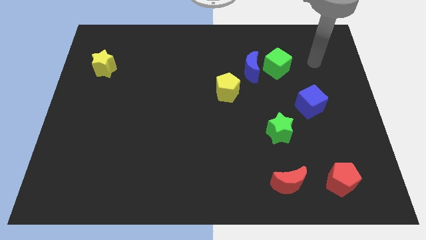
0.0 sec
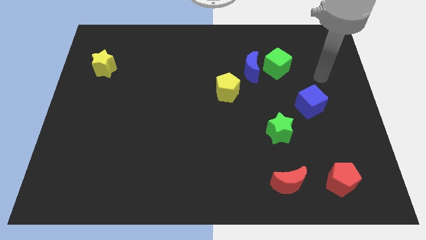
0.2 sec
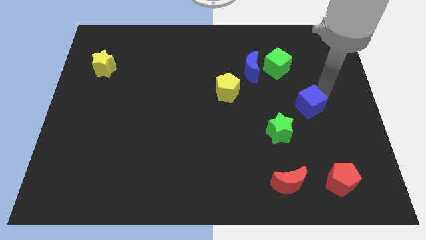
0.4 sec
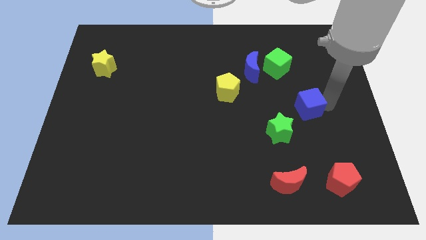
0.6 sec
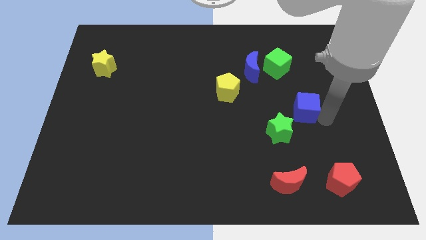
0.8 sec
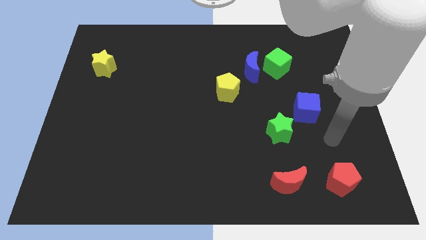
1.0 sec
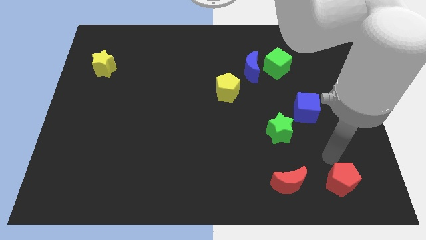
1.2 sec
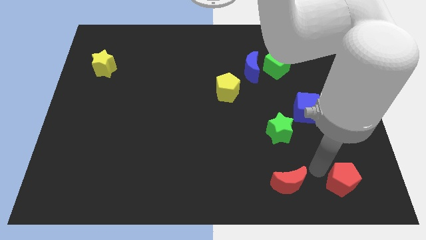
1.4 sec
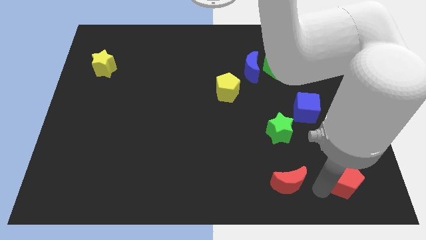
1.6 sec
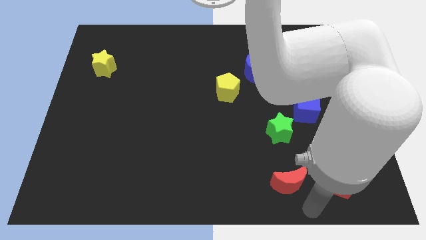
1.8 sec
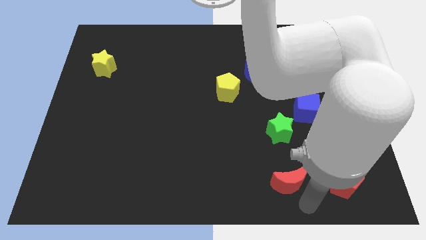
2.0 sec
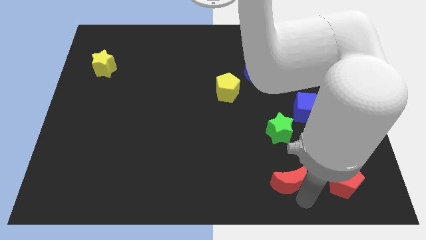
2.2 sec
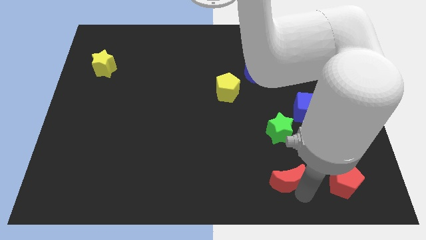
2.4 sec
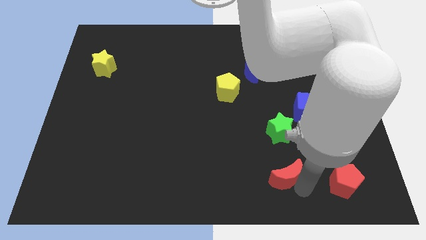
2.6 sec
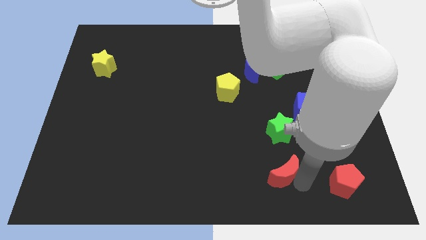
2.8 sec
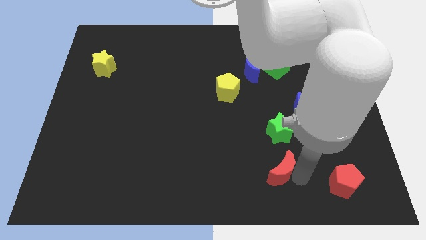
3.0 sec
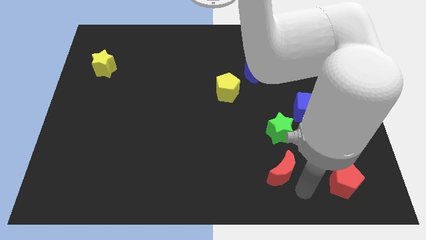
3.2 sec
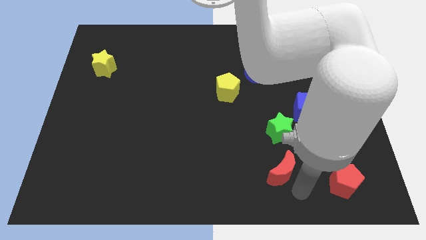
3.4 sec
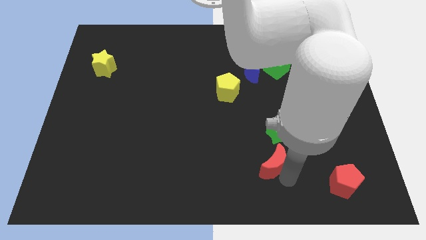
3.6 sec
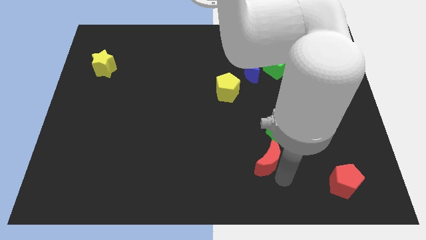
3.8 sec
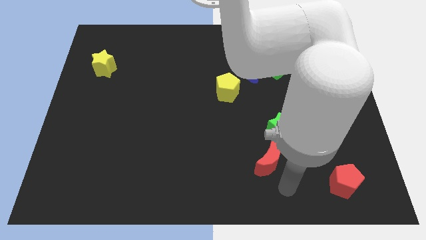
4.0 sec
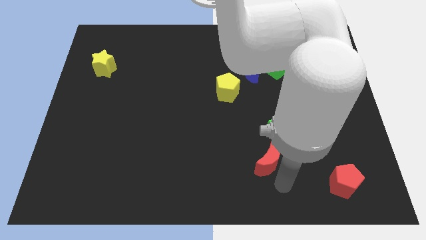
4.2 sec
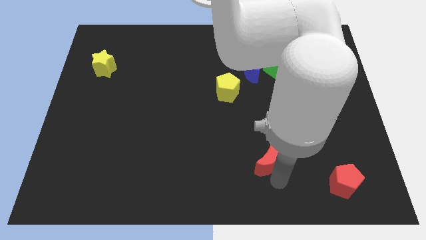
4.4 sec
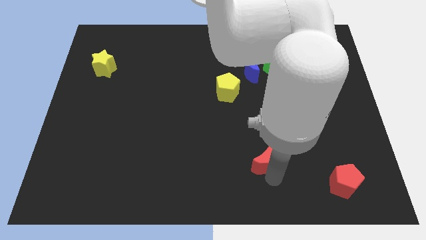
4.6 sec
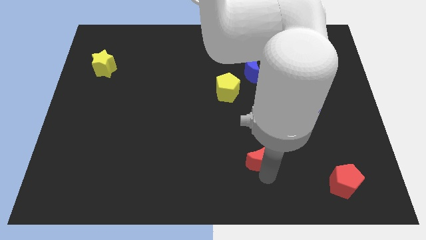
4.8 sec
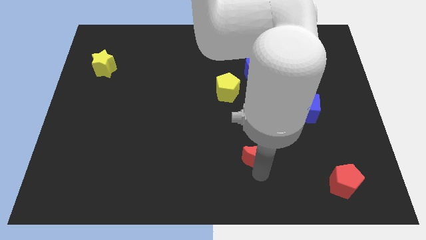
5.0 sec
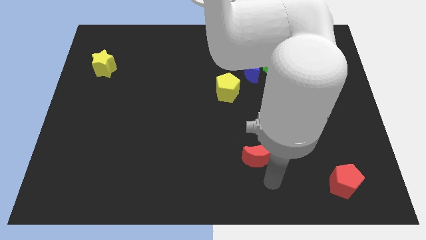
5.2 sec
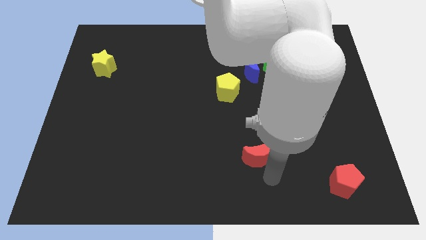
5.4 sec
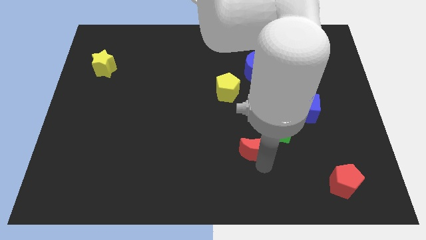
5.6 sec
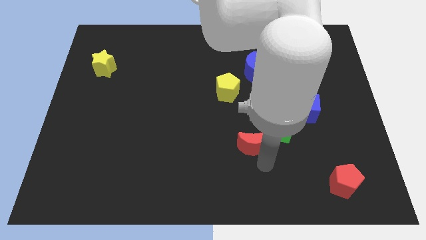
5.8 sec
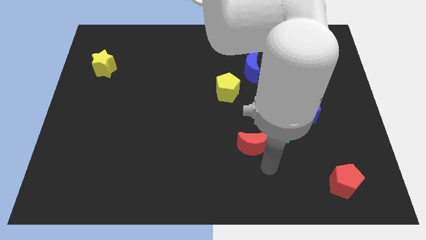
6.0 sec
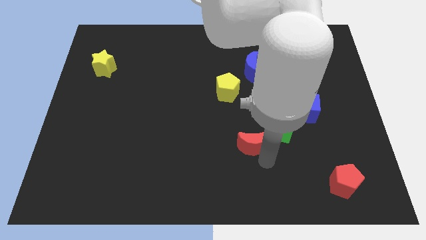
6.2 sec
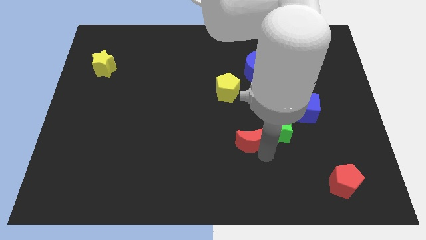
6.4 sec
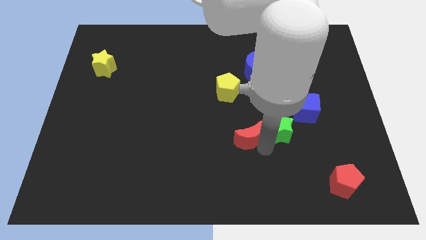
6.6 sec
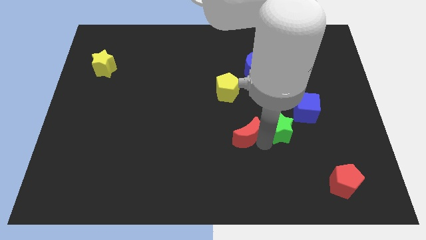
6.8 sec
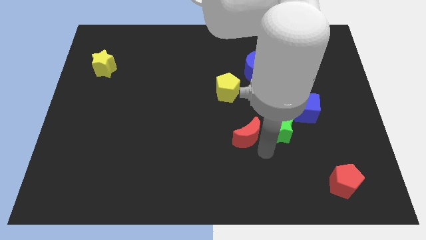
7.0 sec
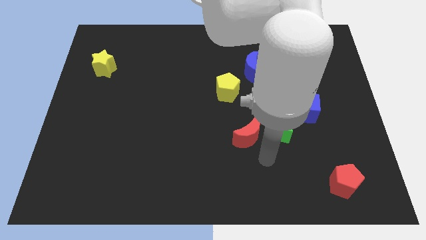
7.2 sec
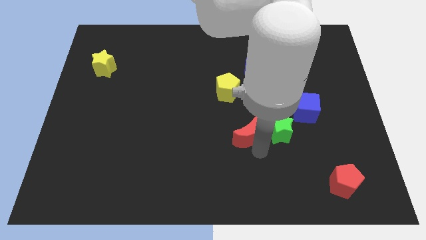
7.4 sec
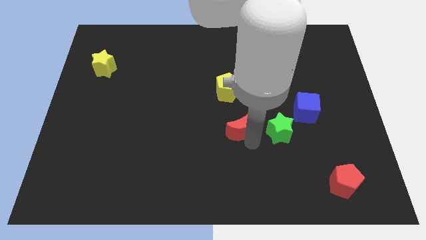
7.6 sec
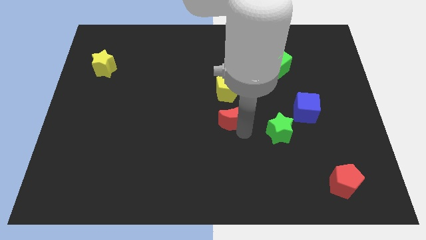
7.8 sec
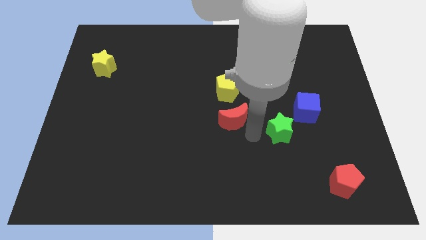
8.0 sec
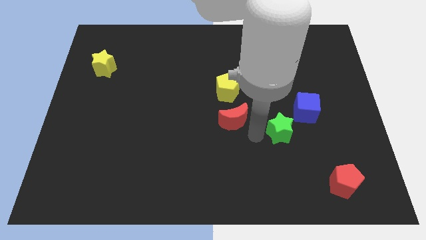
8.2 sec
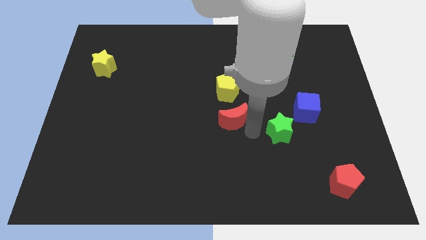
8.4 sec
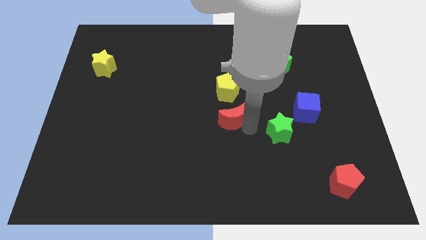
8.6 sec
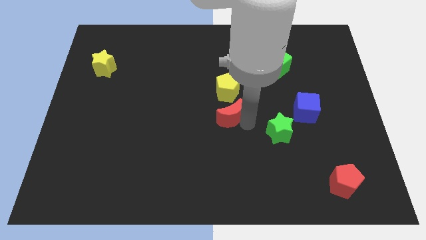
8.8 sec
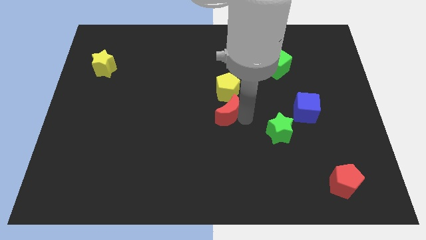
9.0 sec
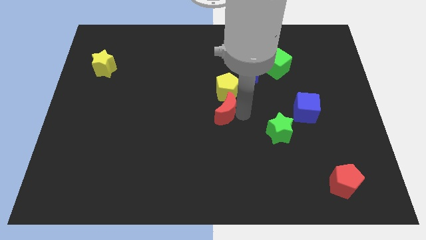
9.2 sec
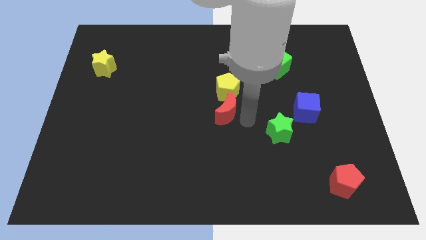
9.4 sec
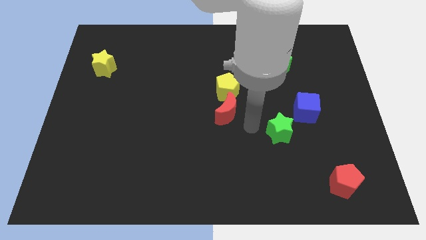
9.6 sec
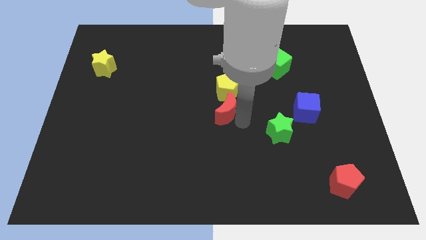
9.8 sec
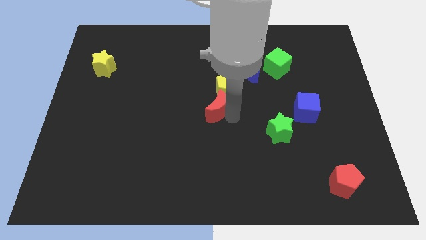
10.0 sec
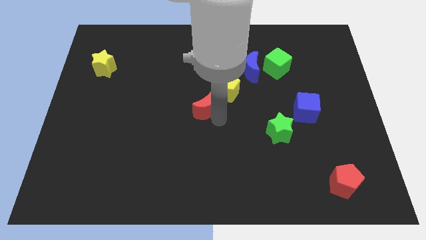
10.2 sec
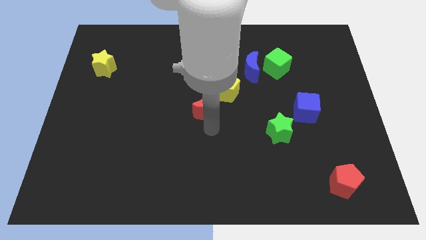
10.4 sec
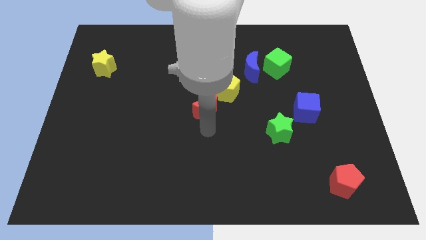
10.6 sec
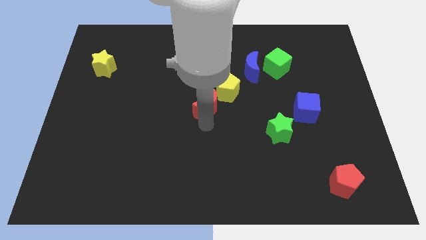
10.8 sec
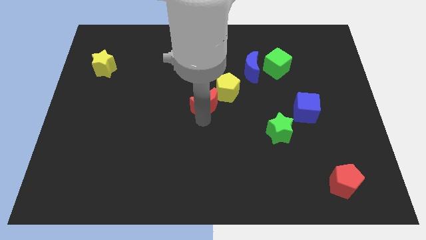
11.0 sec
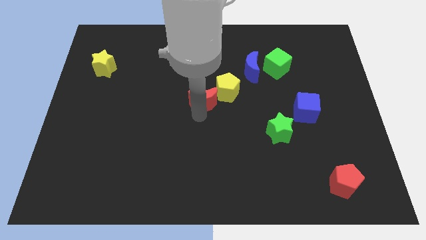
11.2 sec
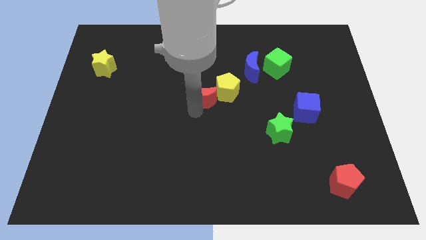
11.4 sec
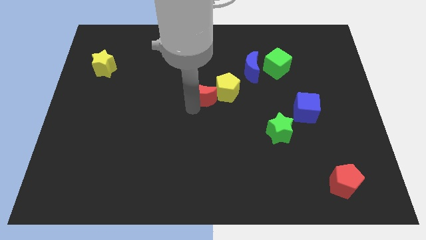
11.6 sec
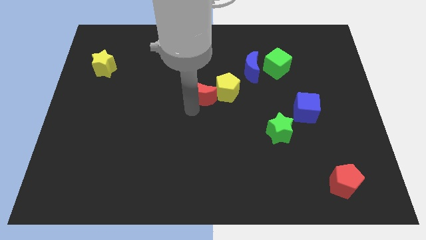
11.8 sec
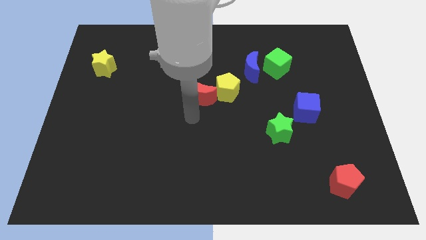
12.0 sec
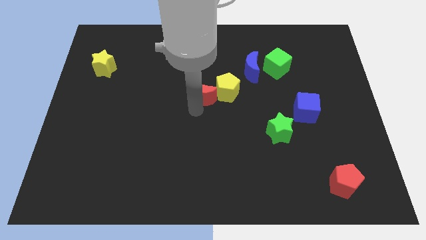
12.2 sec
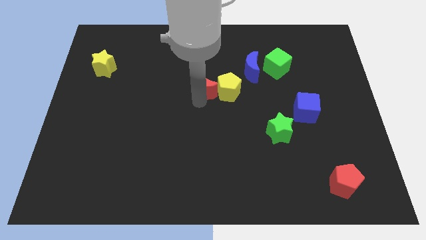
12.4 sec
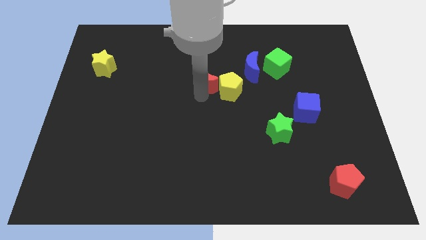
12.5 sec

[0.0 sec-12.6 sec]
slide the red moon just left of the blue moon

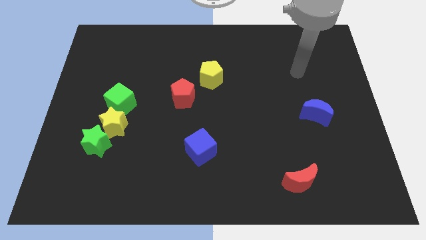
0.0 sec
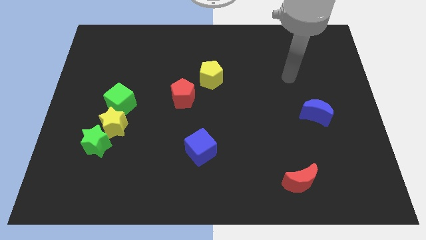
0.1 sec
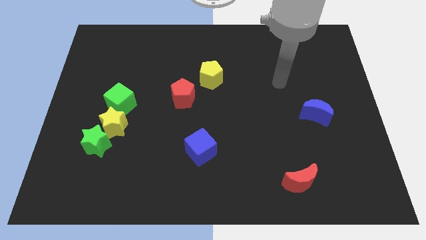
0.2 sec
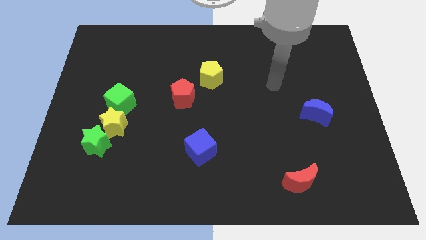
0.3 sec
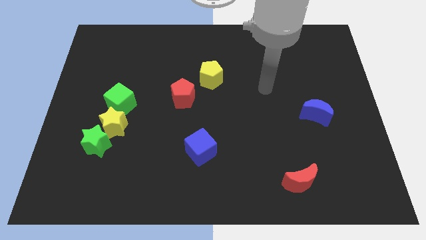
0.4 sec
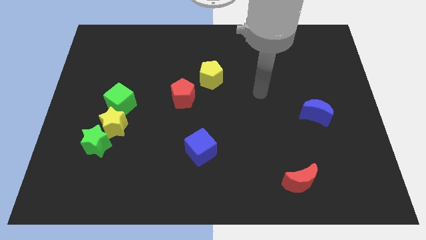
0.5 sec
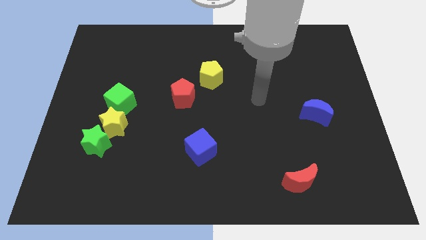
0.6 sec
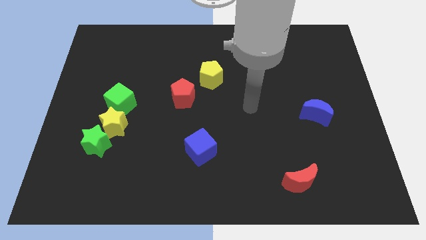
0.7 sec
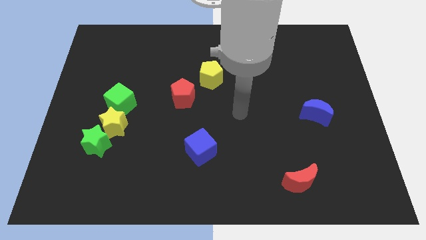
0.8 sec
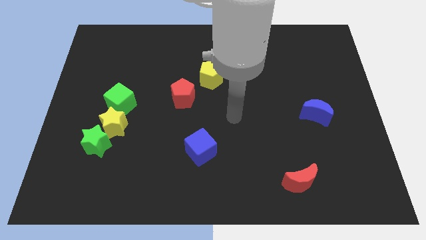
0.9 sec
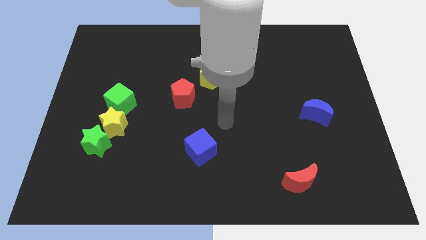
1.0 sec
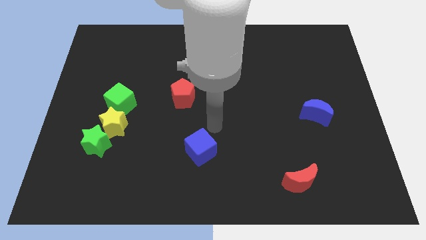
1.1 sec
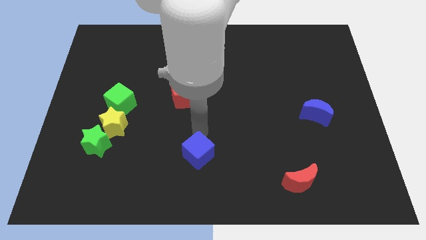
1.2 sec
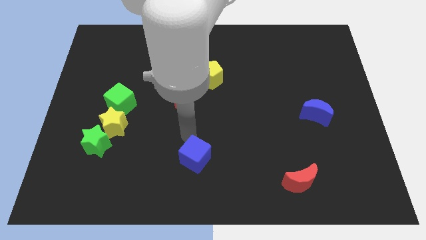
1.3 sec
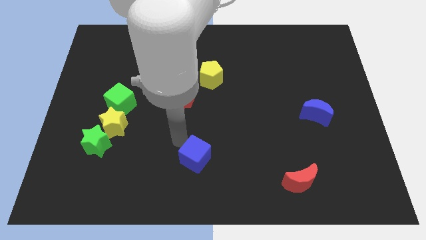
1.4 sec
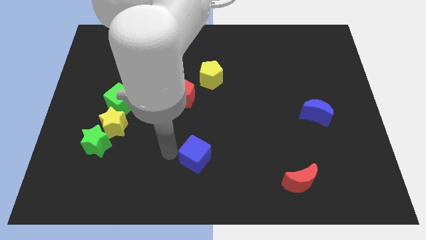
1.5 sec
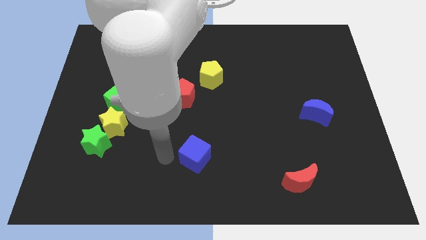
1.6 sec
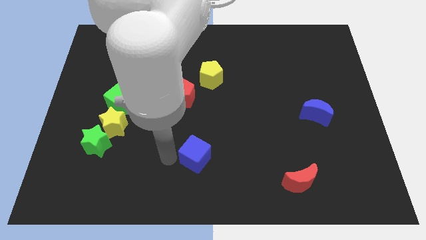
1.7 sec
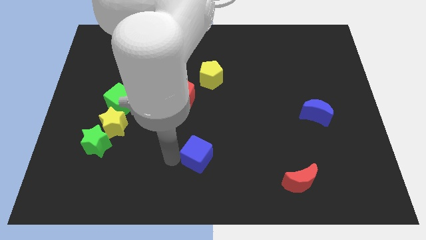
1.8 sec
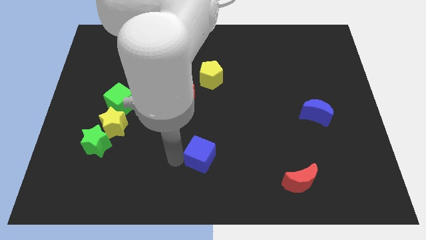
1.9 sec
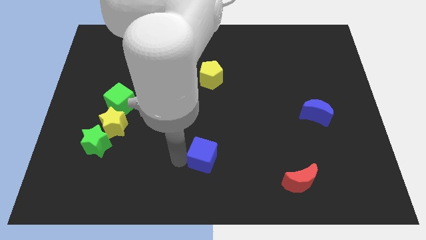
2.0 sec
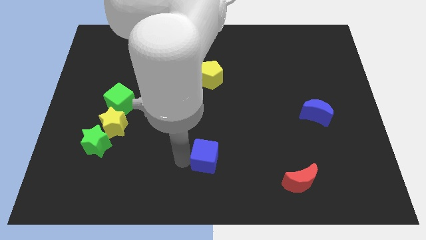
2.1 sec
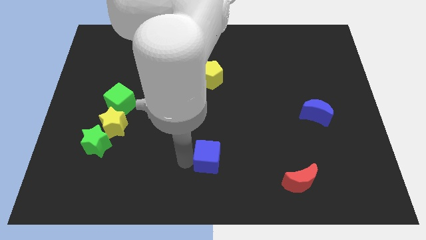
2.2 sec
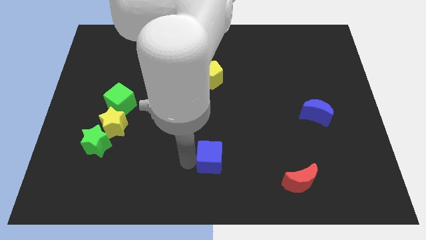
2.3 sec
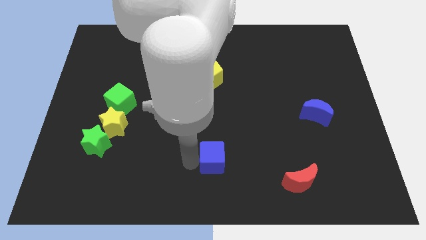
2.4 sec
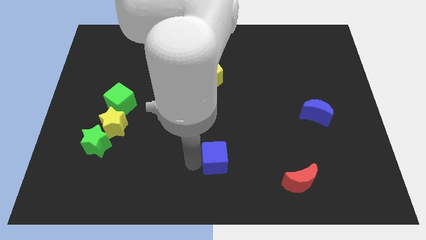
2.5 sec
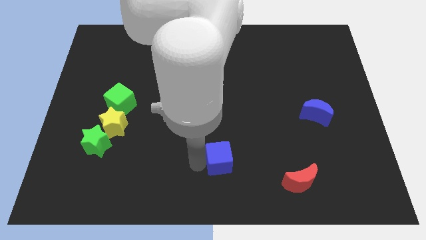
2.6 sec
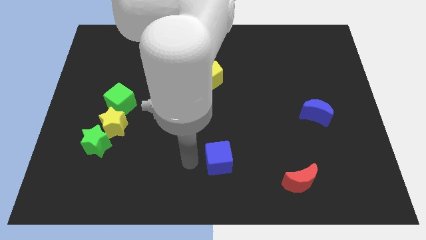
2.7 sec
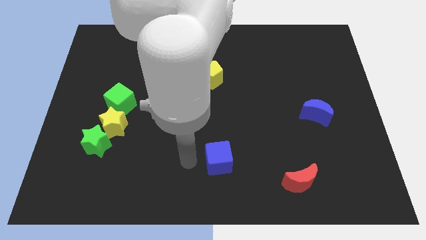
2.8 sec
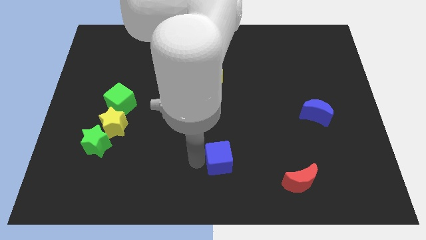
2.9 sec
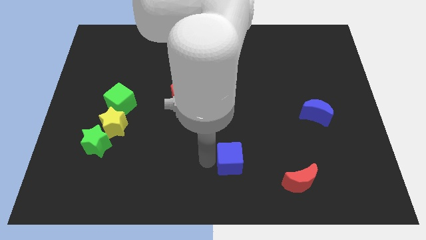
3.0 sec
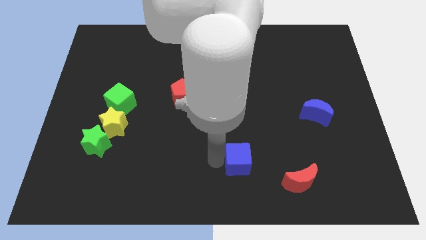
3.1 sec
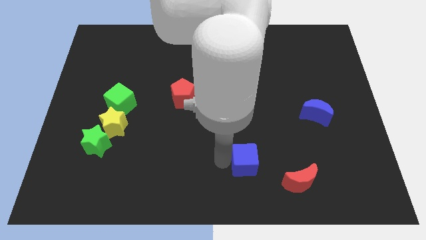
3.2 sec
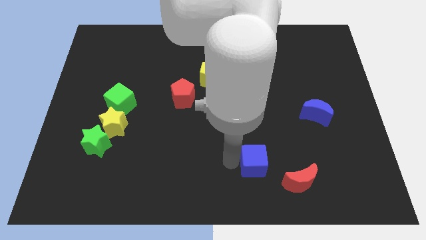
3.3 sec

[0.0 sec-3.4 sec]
slide the blue cube to the top left of the red moon
